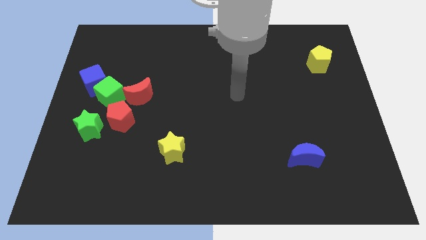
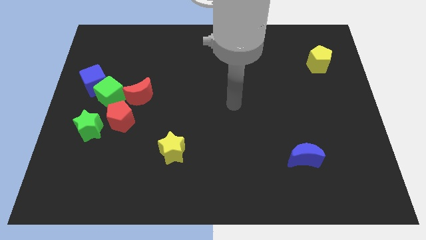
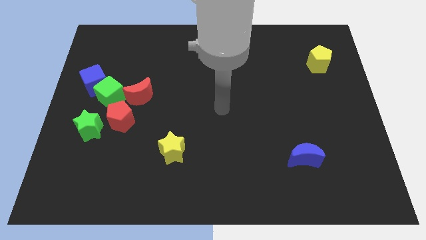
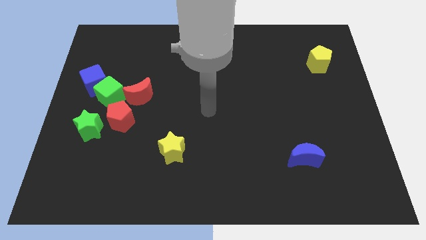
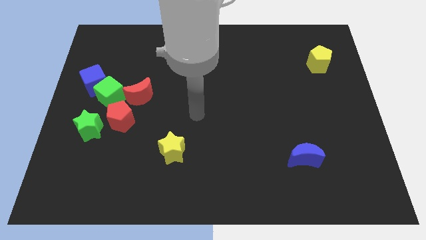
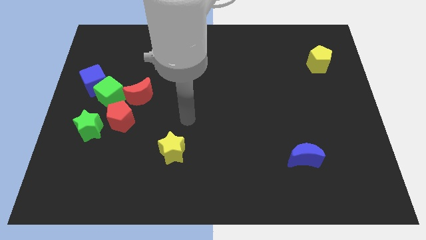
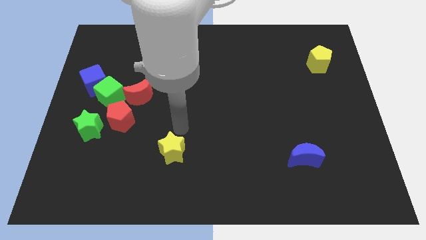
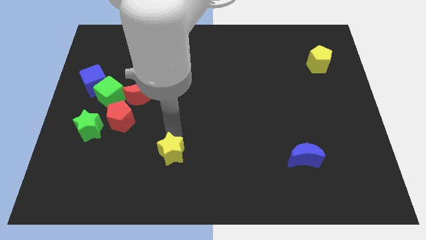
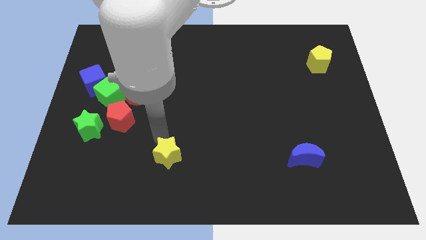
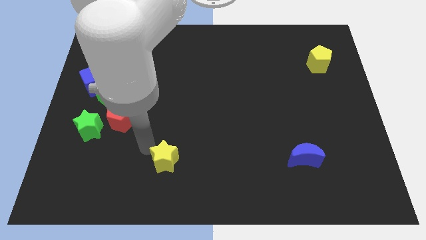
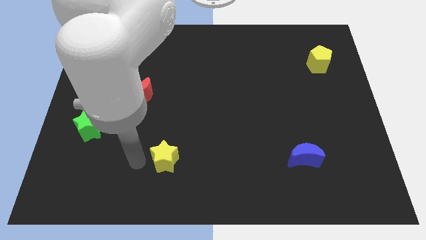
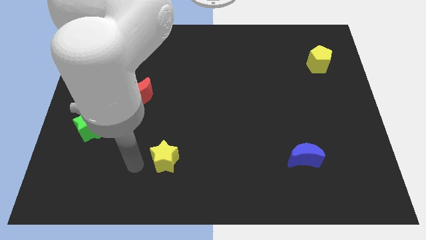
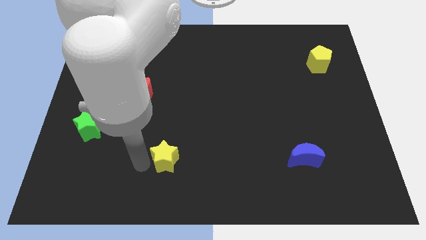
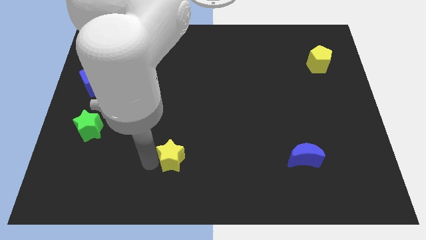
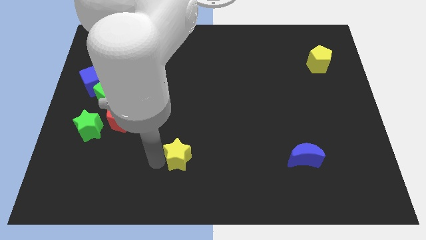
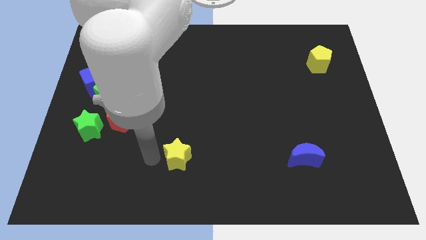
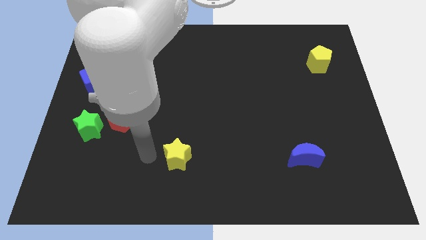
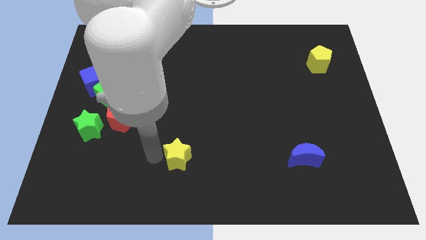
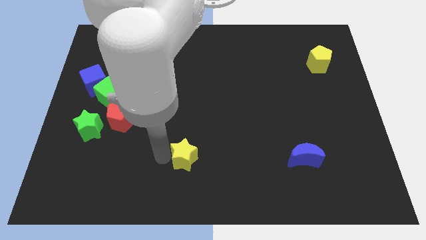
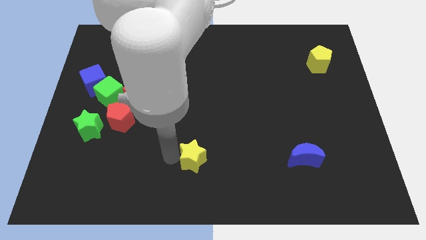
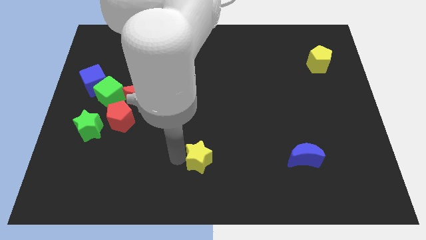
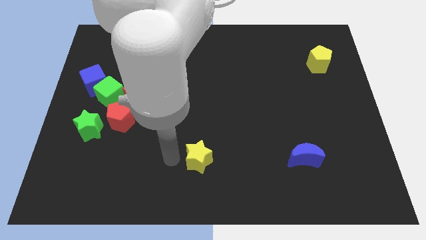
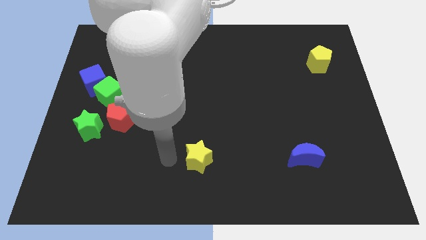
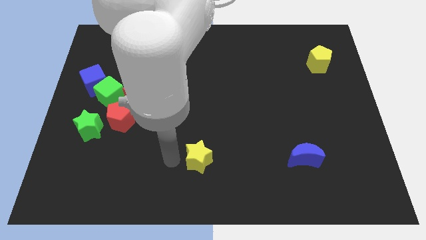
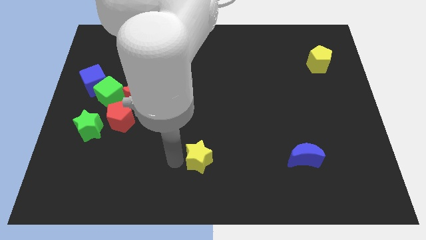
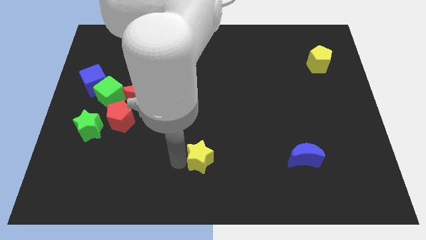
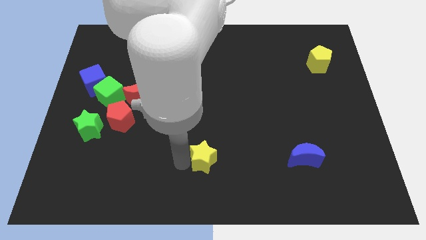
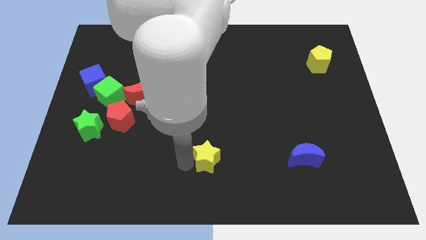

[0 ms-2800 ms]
slightly move the yellow star right

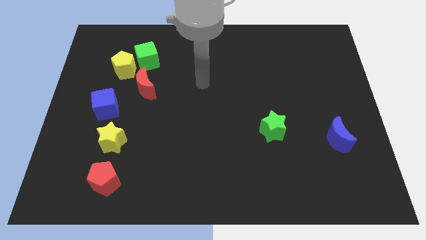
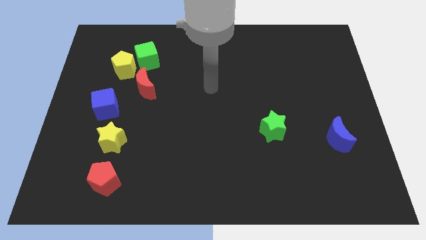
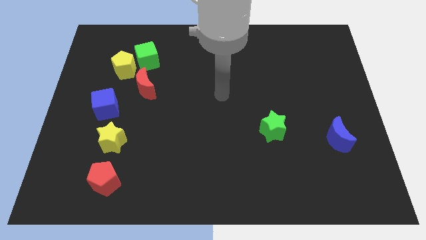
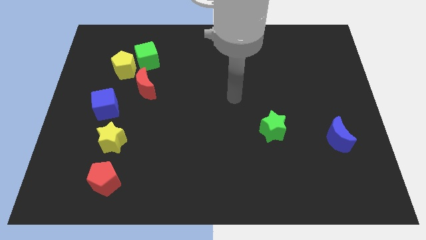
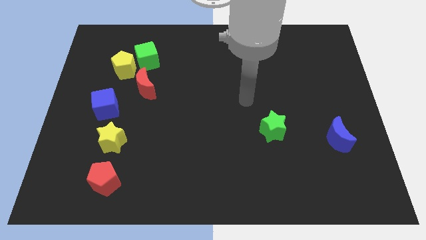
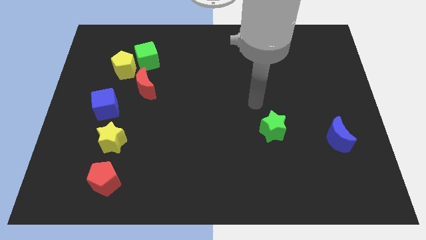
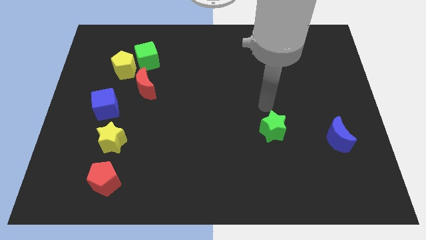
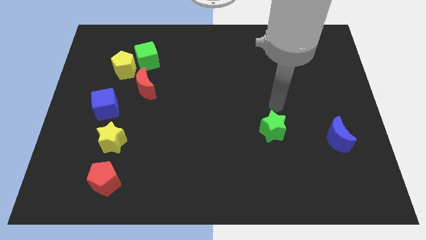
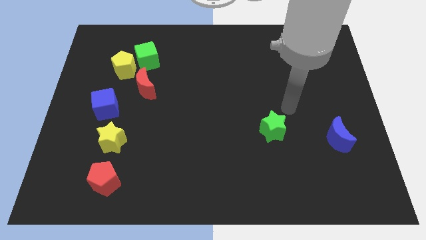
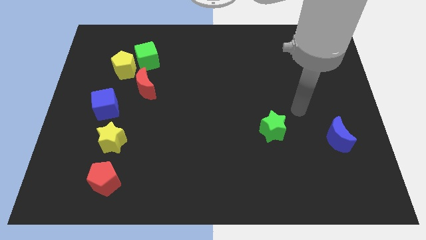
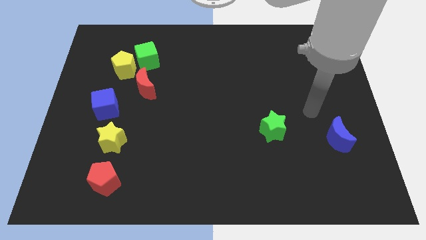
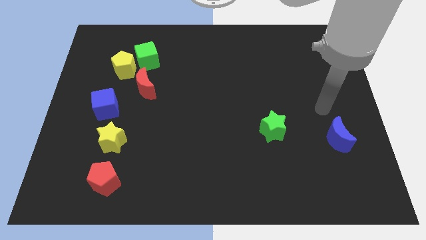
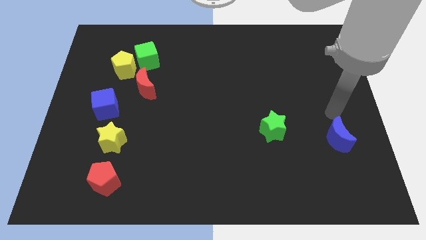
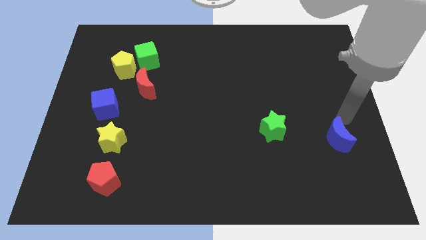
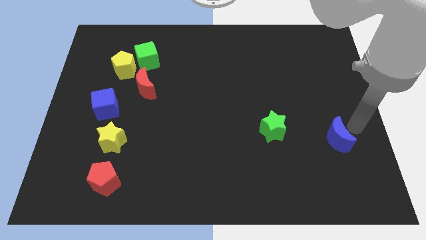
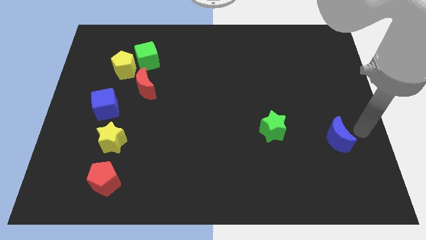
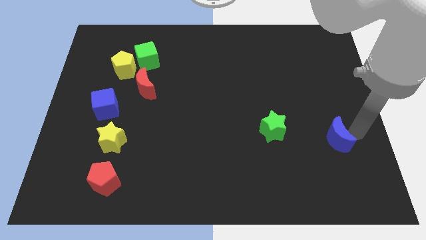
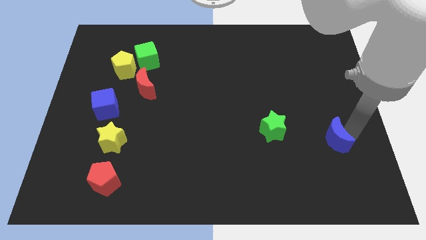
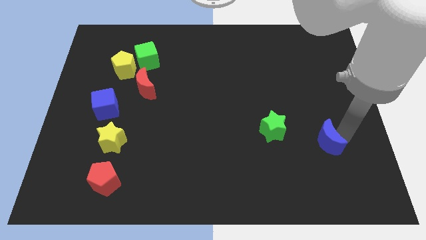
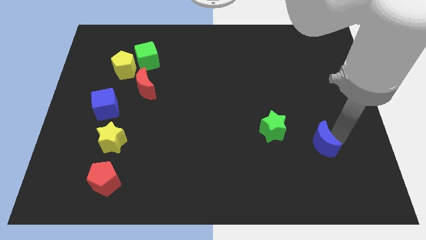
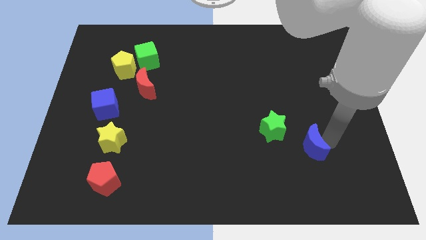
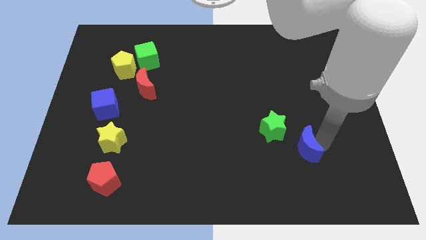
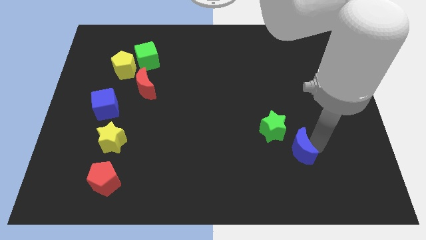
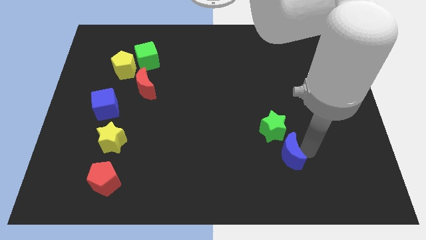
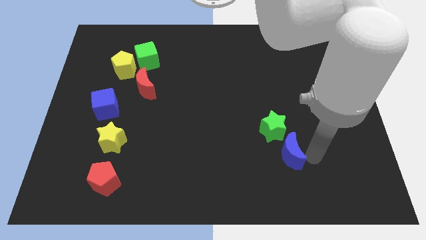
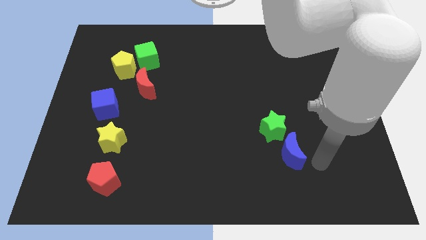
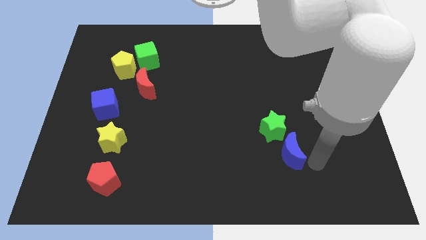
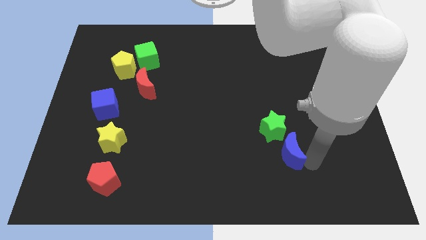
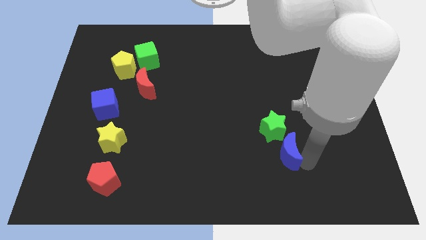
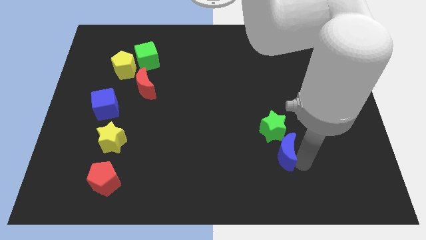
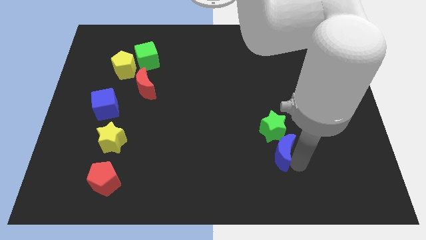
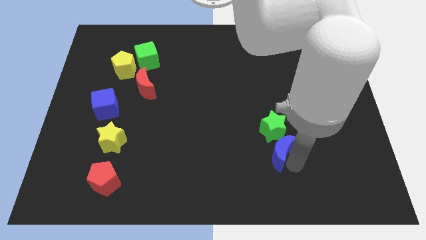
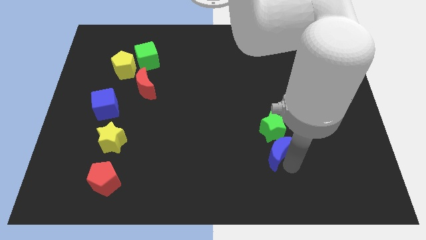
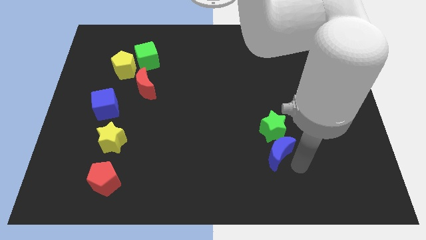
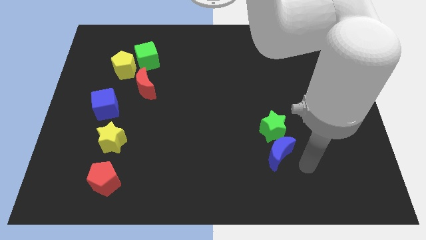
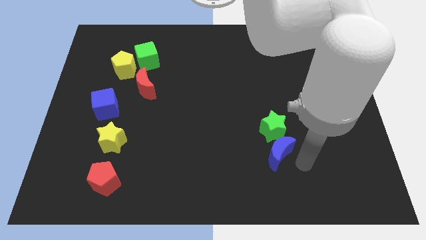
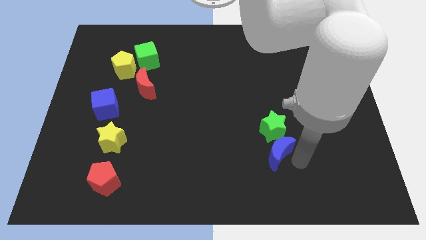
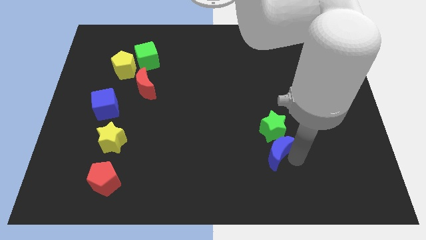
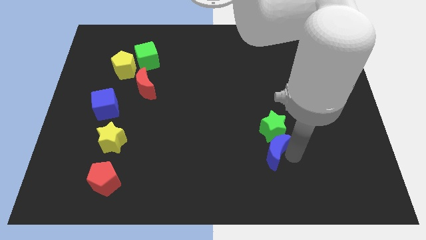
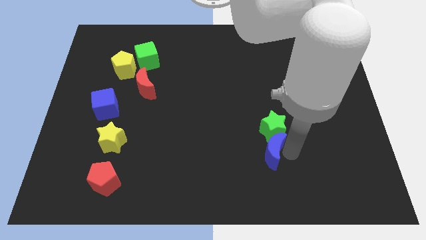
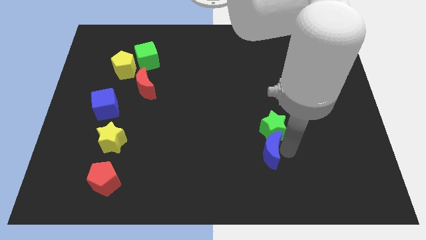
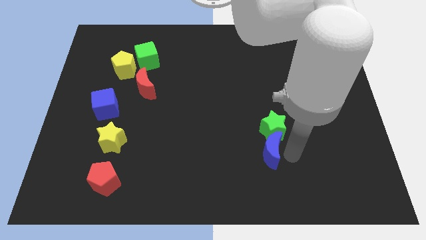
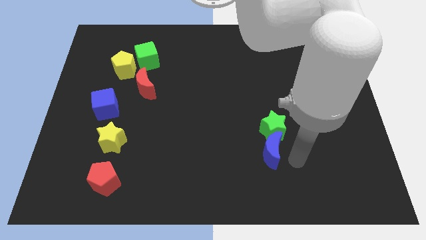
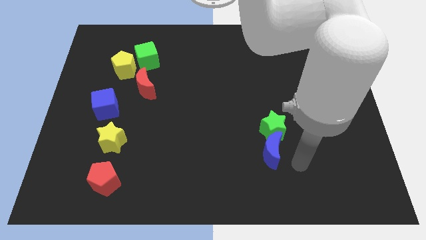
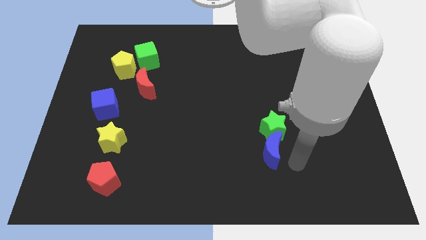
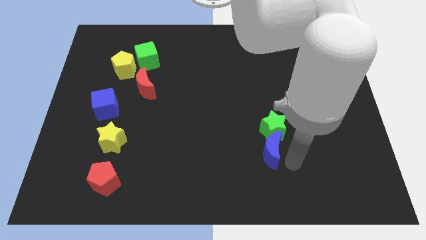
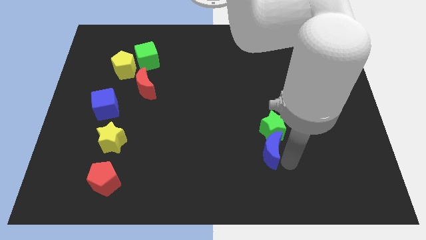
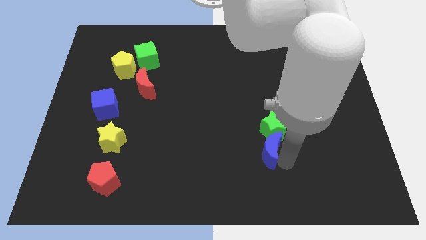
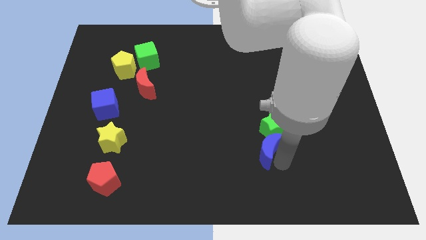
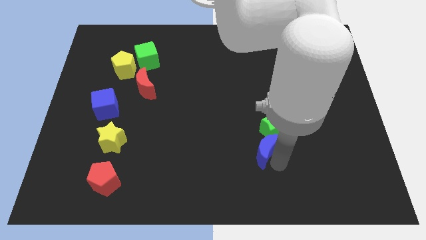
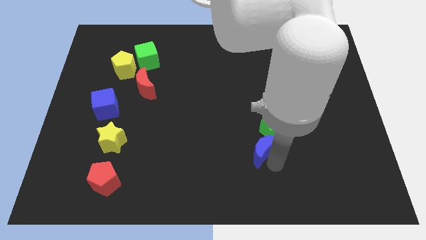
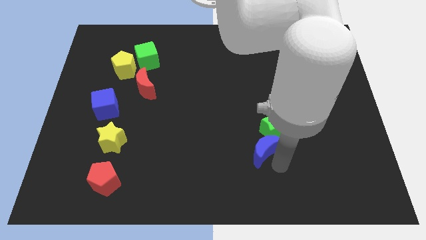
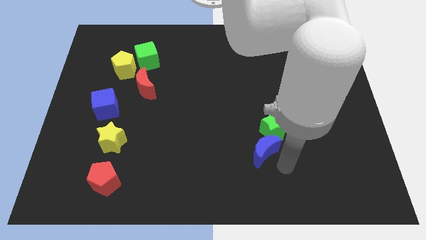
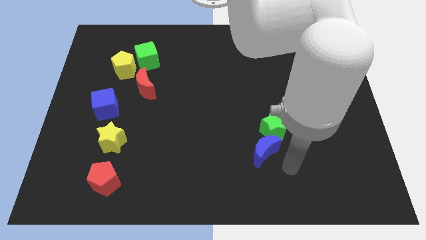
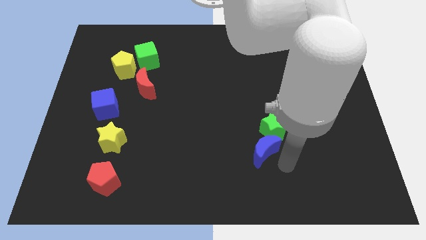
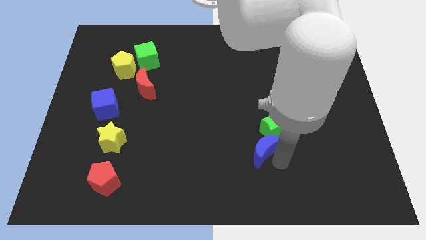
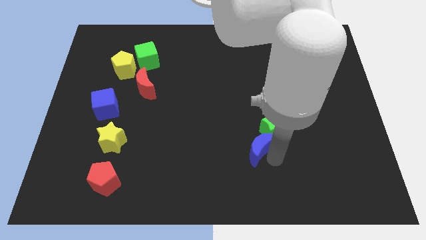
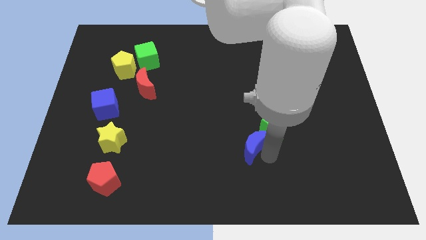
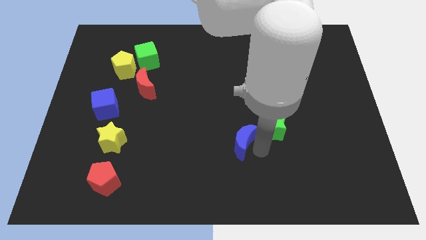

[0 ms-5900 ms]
move the blue moon to the left
